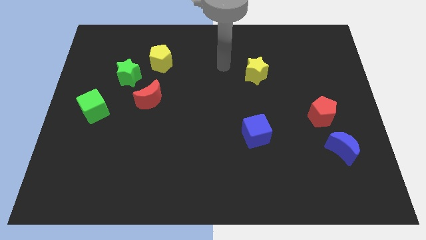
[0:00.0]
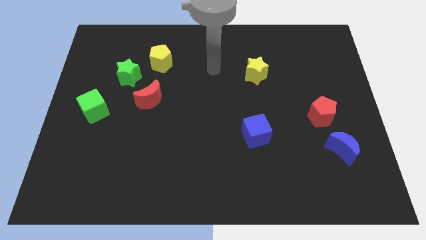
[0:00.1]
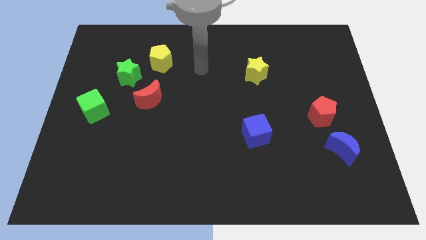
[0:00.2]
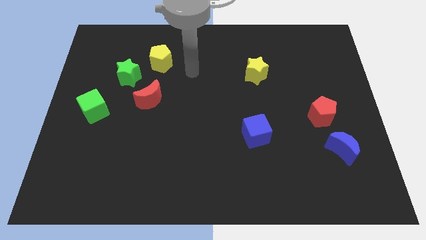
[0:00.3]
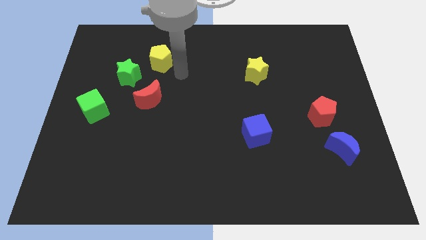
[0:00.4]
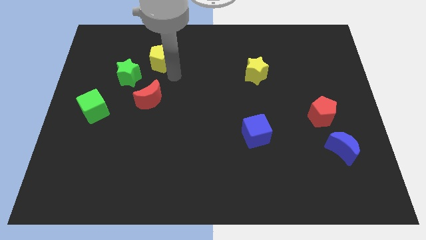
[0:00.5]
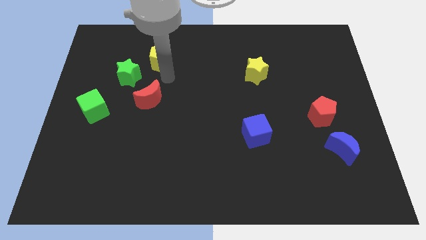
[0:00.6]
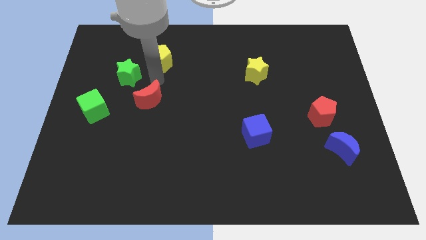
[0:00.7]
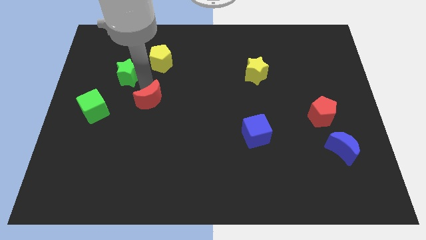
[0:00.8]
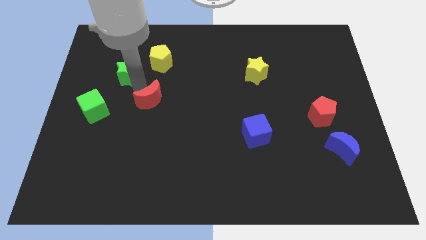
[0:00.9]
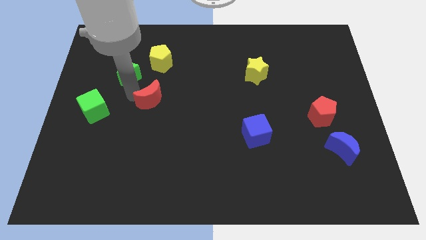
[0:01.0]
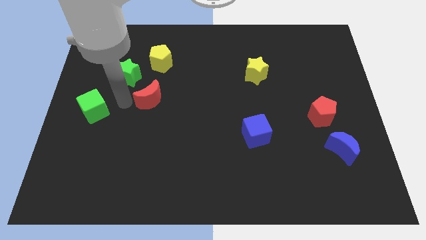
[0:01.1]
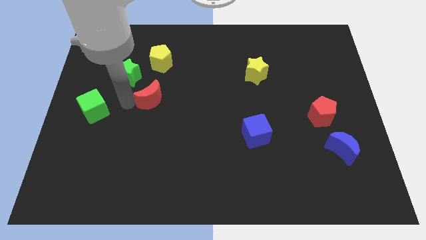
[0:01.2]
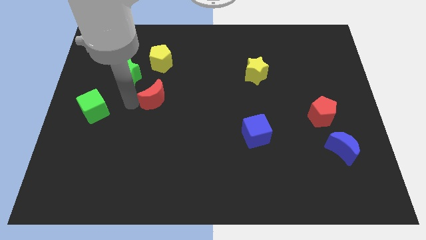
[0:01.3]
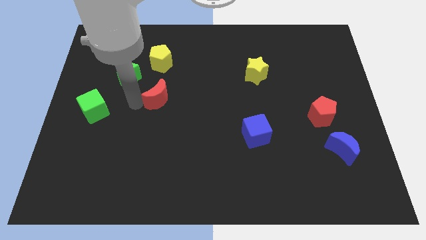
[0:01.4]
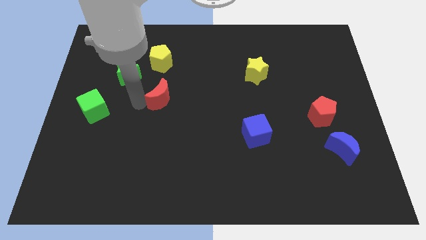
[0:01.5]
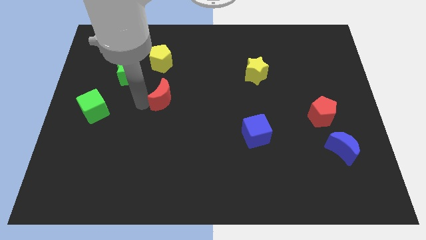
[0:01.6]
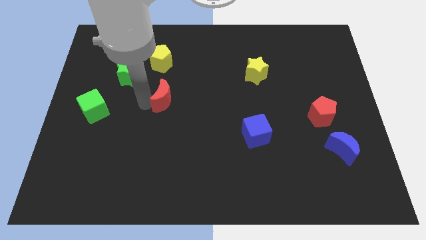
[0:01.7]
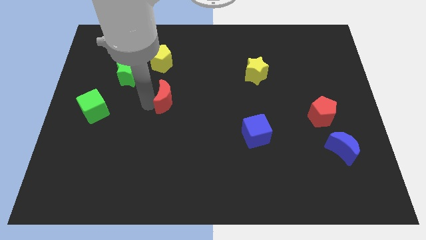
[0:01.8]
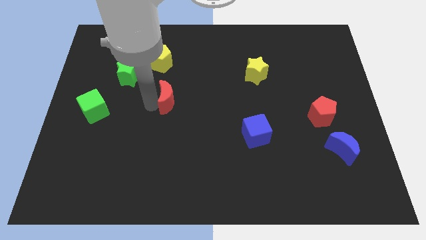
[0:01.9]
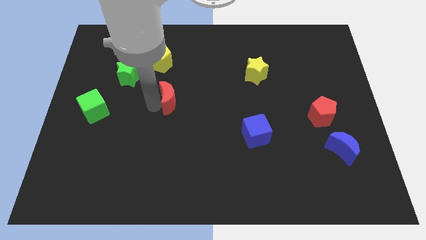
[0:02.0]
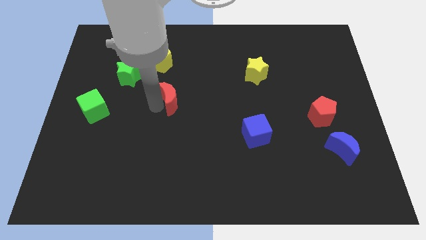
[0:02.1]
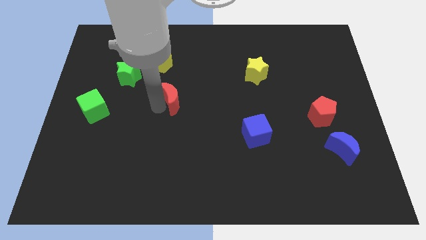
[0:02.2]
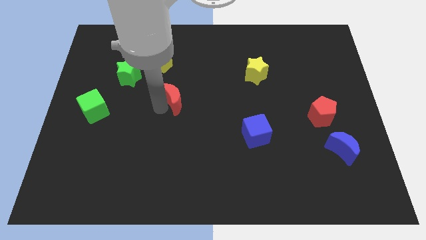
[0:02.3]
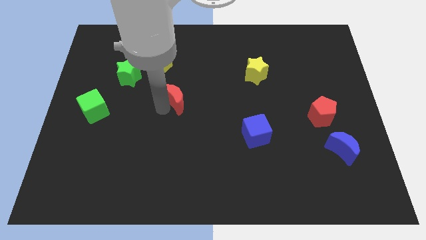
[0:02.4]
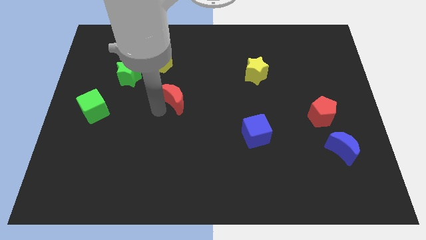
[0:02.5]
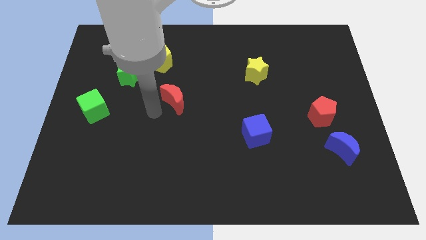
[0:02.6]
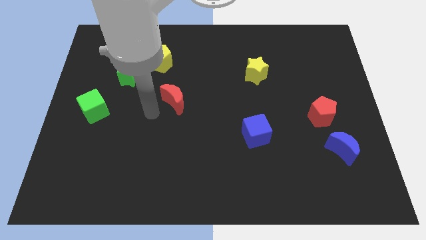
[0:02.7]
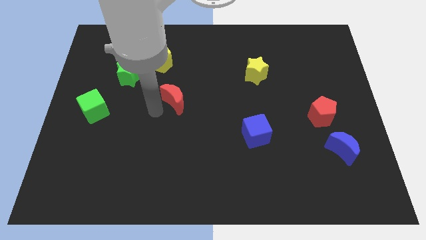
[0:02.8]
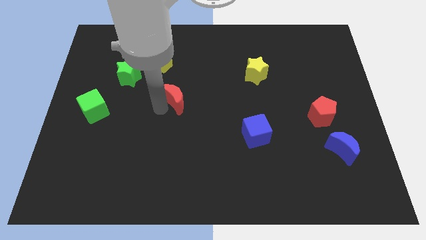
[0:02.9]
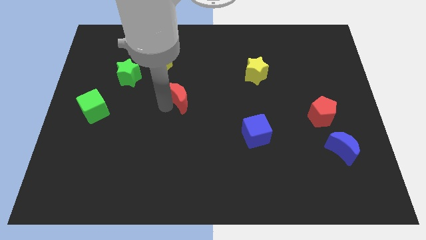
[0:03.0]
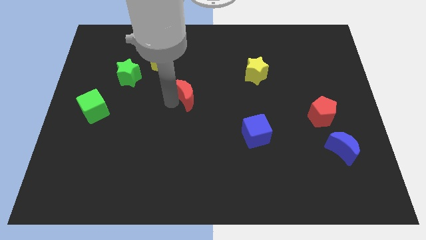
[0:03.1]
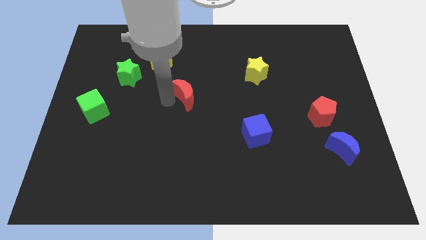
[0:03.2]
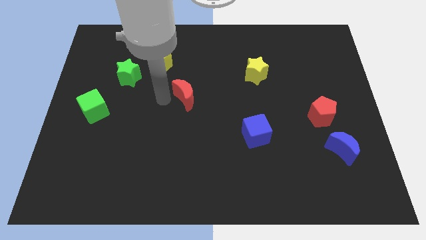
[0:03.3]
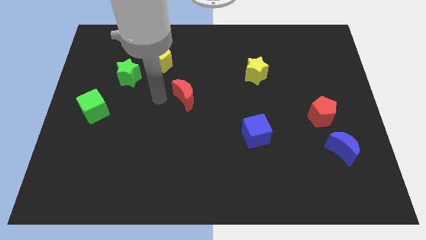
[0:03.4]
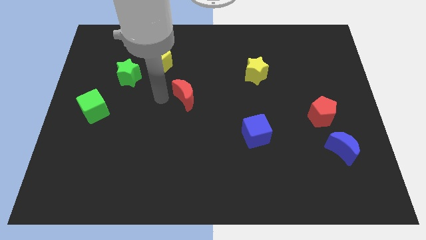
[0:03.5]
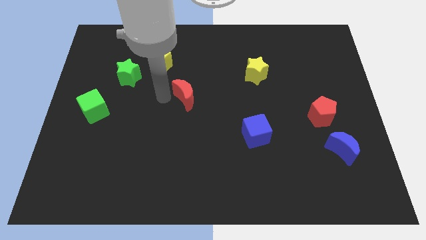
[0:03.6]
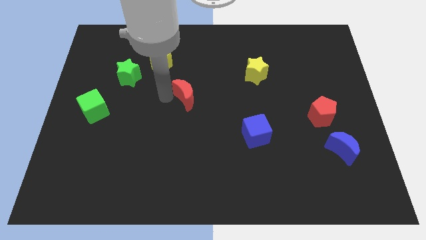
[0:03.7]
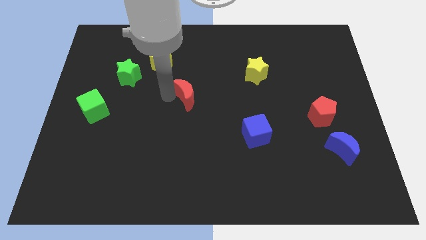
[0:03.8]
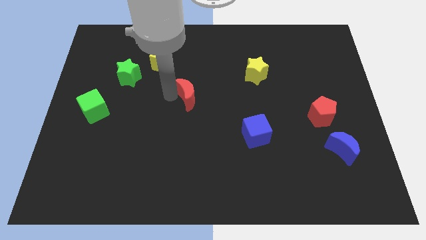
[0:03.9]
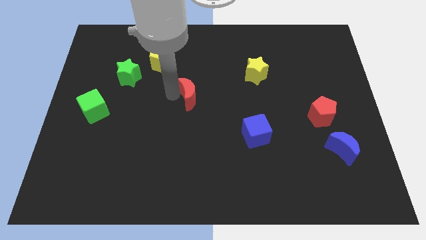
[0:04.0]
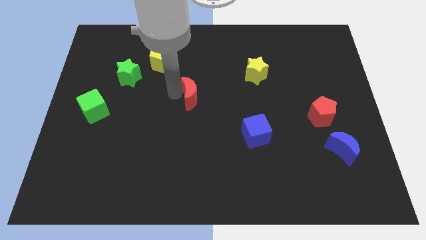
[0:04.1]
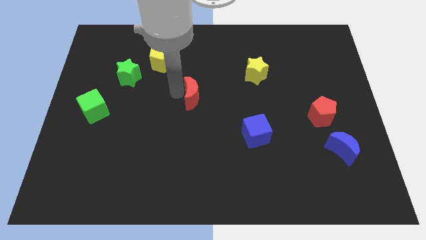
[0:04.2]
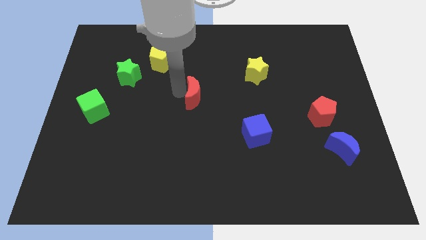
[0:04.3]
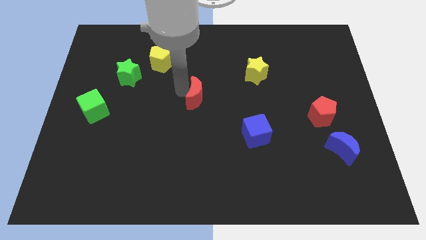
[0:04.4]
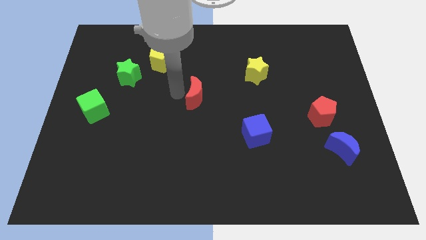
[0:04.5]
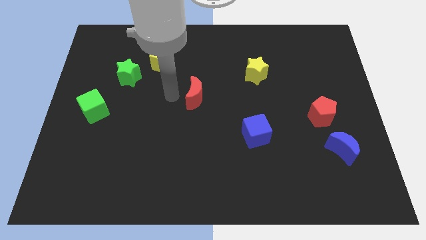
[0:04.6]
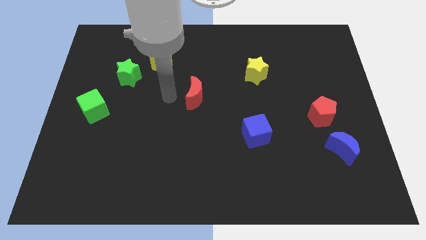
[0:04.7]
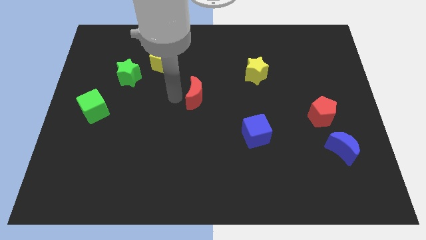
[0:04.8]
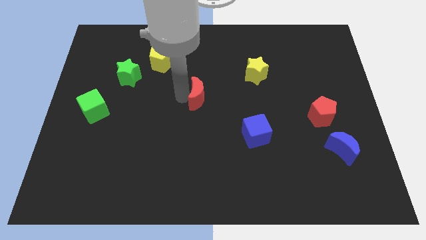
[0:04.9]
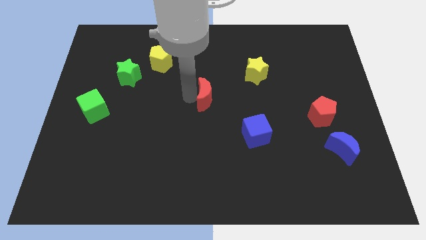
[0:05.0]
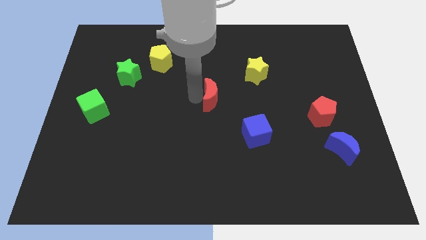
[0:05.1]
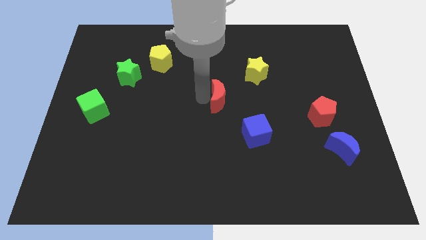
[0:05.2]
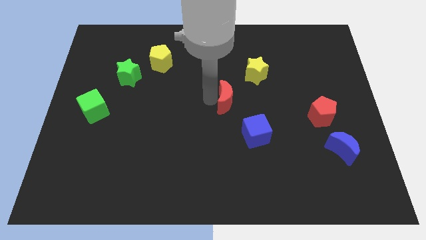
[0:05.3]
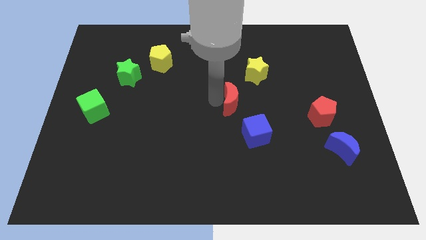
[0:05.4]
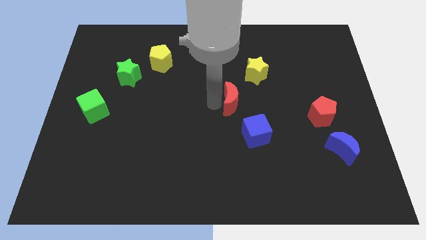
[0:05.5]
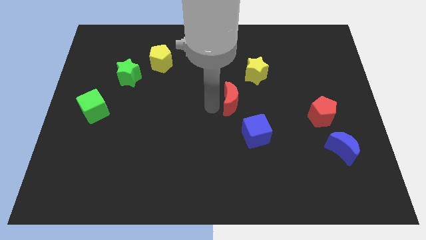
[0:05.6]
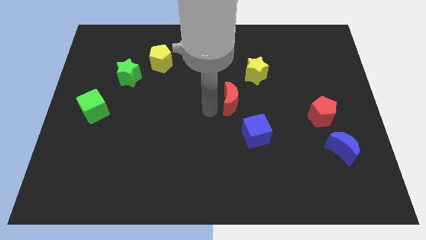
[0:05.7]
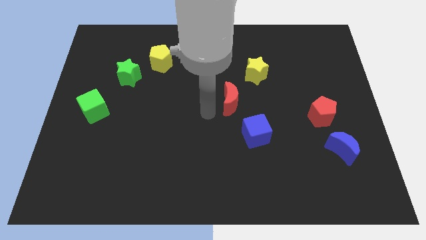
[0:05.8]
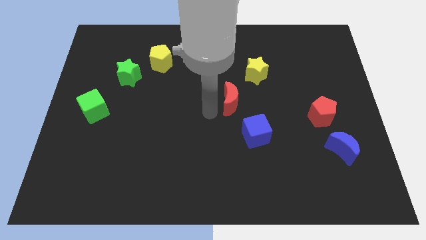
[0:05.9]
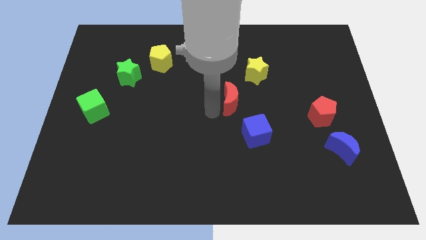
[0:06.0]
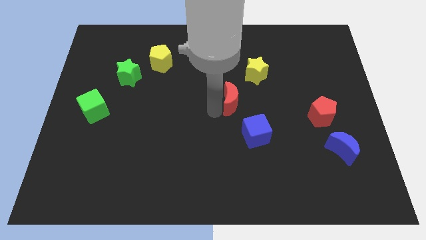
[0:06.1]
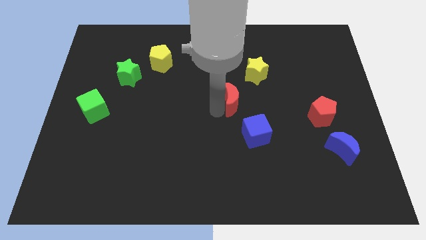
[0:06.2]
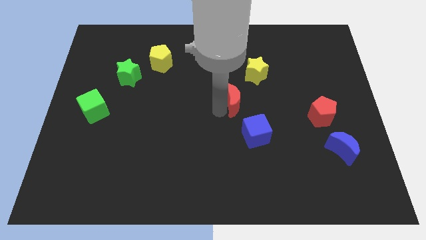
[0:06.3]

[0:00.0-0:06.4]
push the red moon right

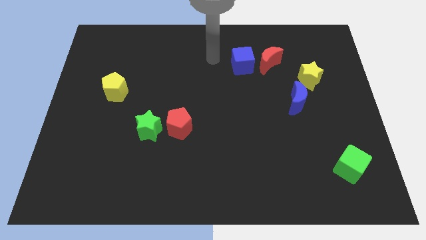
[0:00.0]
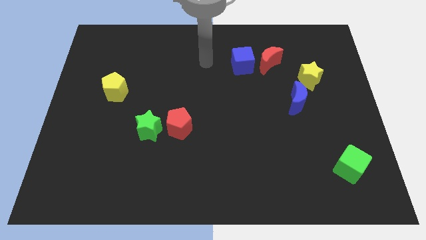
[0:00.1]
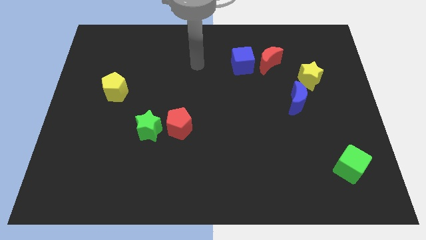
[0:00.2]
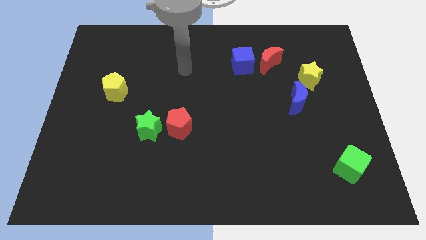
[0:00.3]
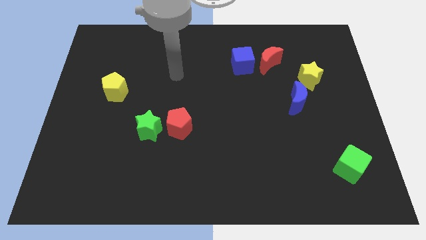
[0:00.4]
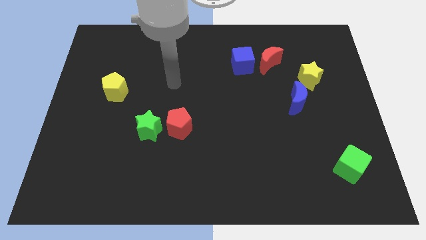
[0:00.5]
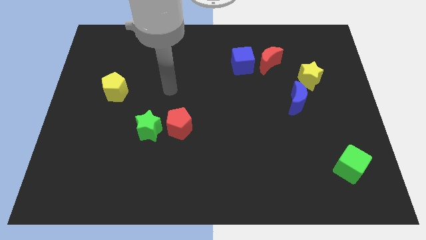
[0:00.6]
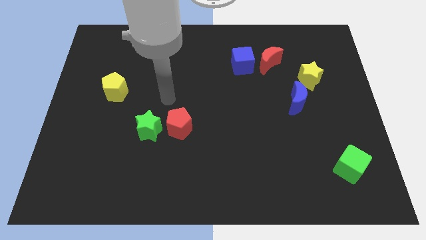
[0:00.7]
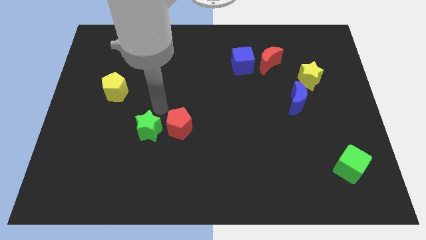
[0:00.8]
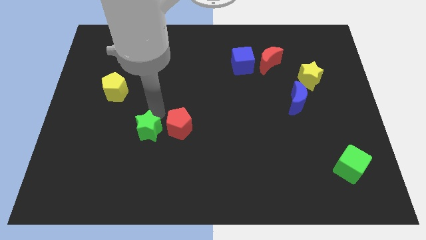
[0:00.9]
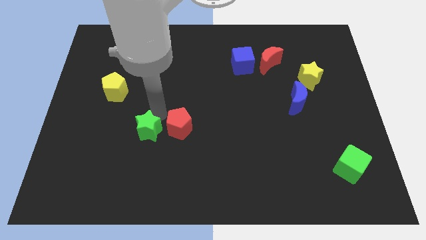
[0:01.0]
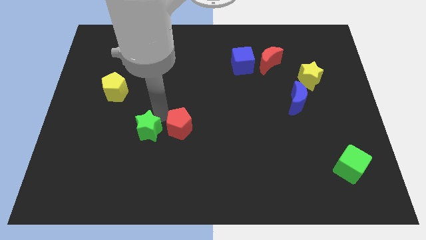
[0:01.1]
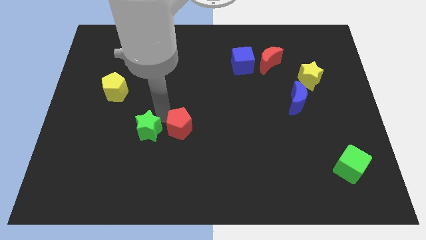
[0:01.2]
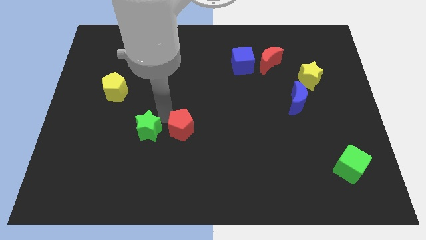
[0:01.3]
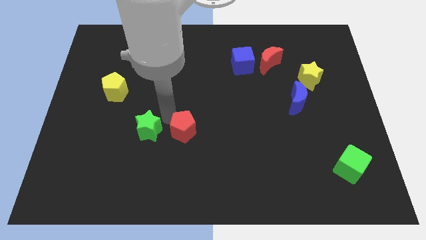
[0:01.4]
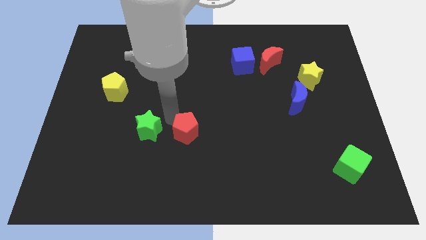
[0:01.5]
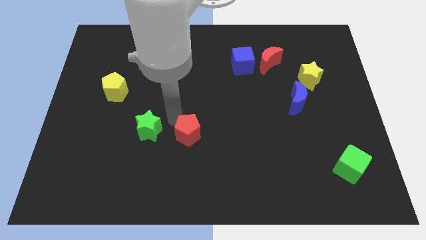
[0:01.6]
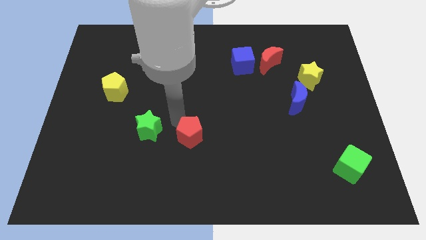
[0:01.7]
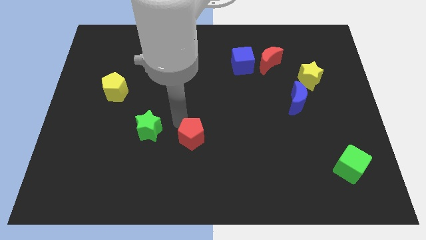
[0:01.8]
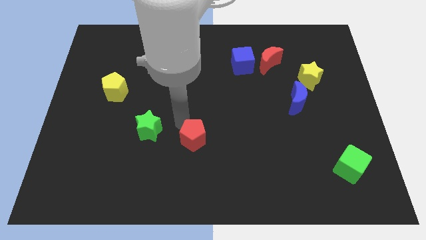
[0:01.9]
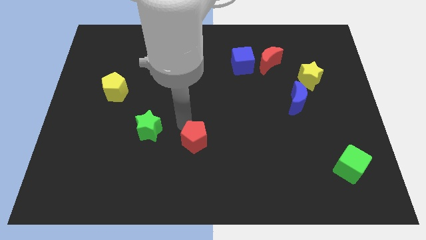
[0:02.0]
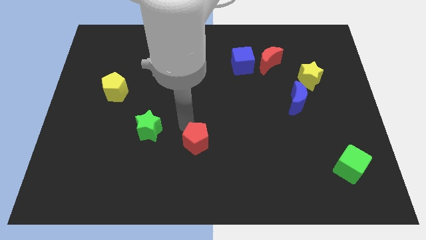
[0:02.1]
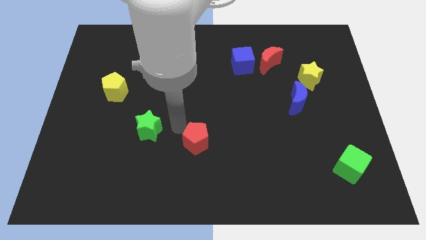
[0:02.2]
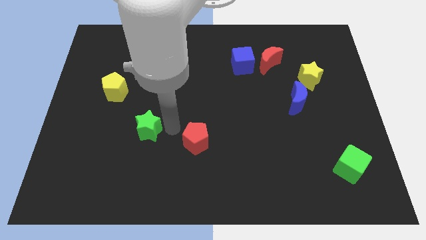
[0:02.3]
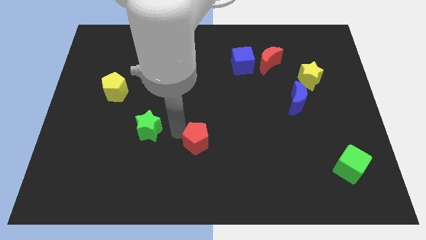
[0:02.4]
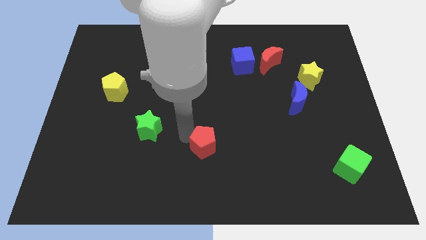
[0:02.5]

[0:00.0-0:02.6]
slightly move the red pentagon downwards and right diagonally
